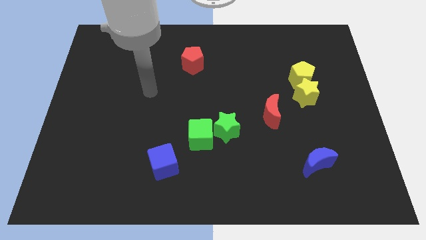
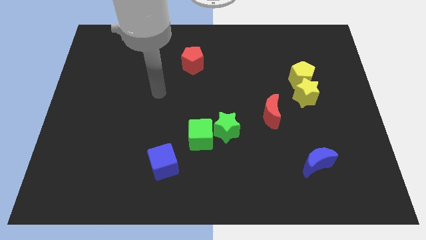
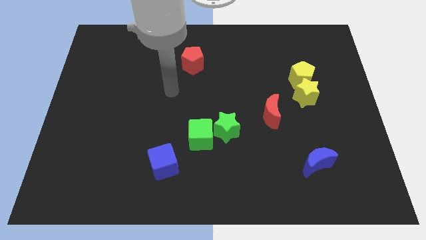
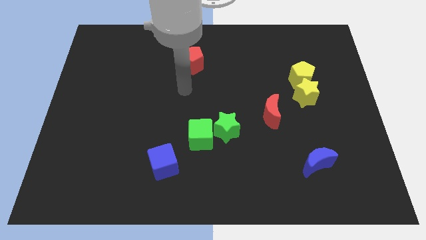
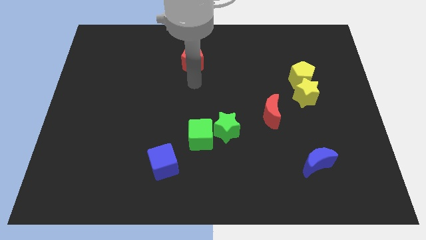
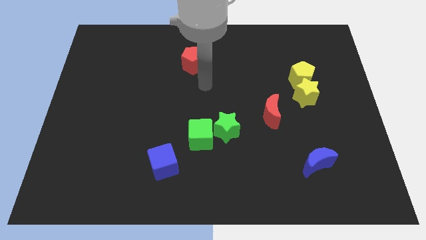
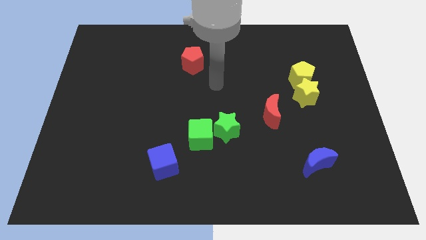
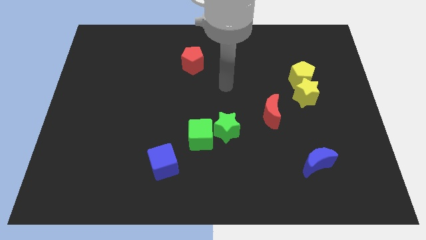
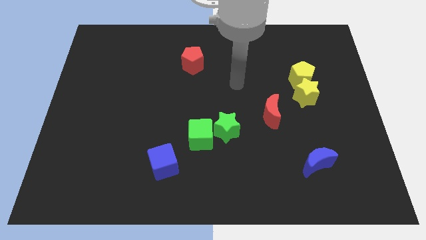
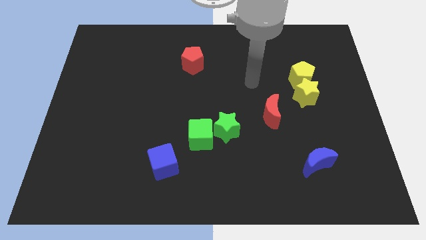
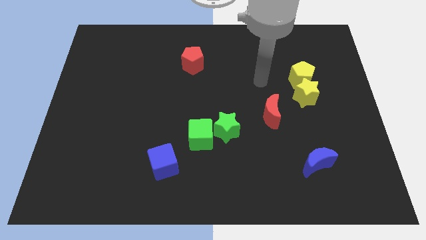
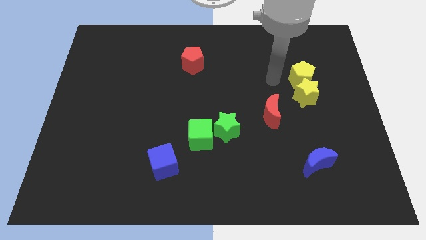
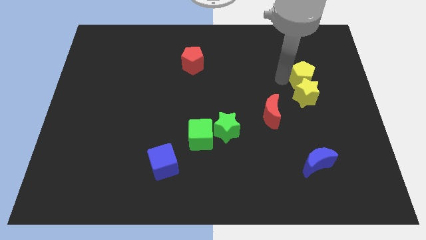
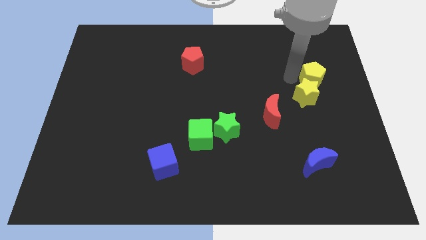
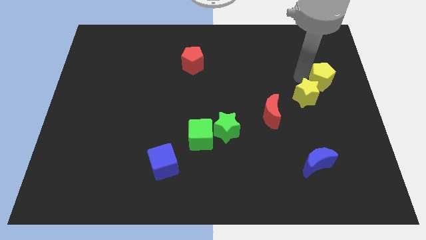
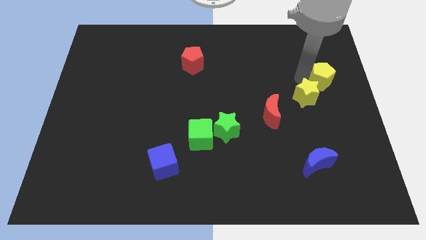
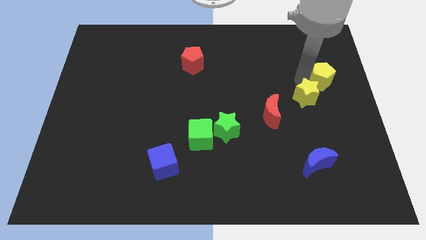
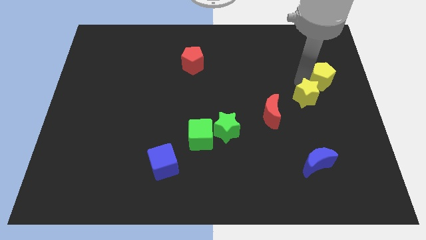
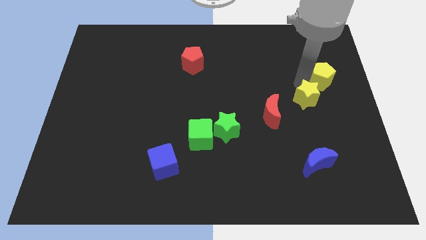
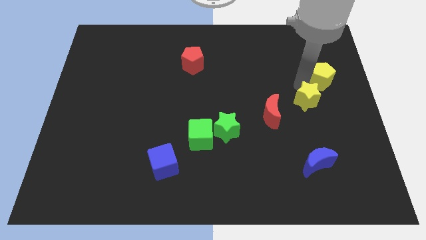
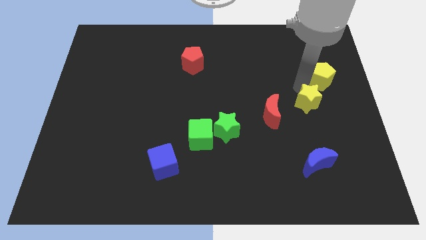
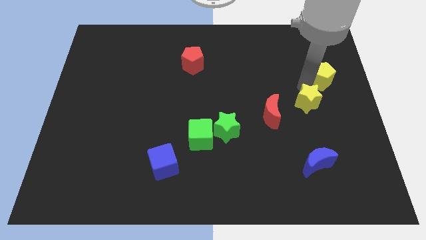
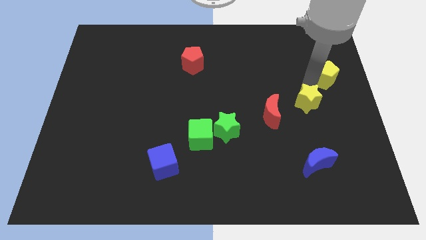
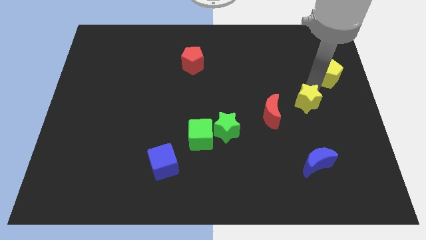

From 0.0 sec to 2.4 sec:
move the yellow star away from the yellow pentagon

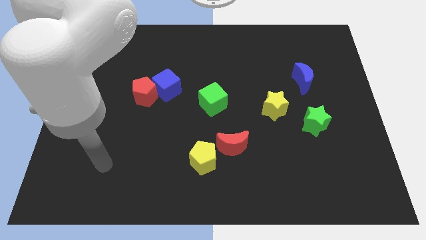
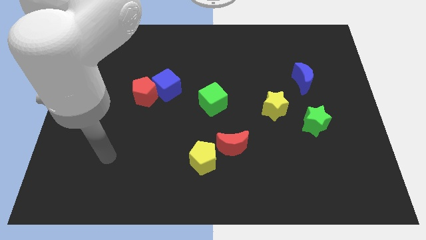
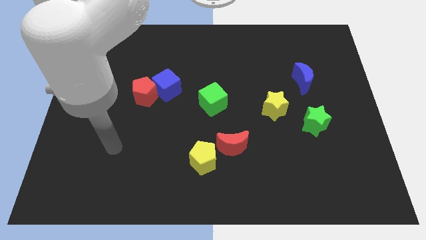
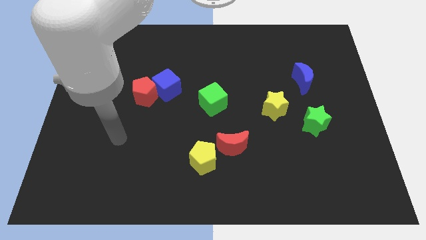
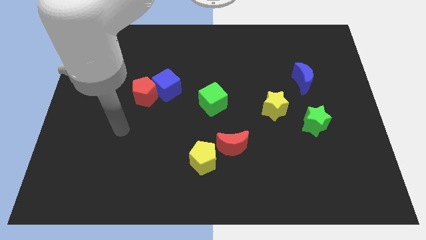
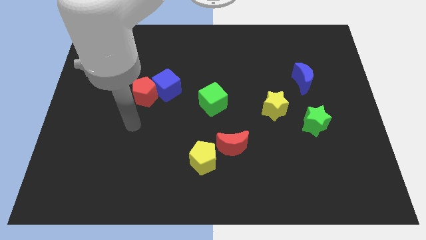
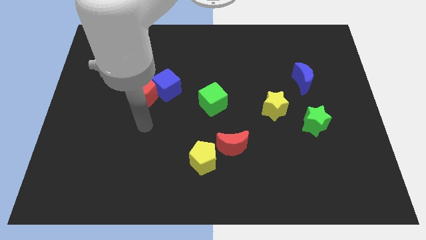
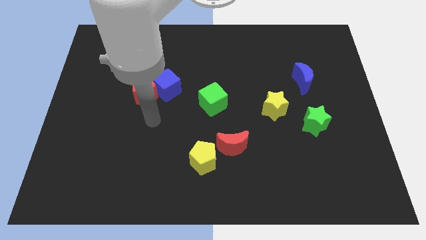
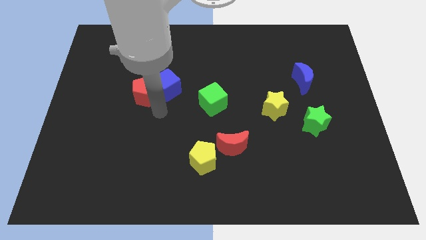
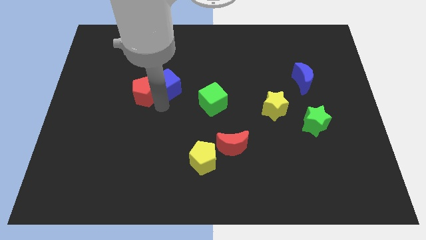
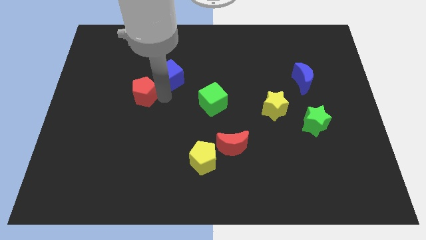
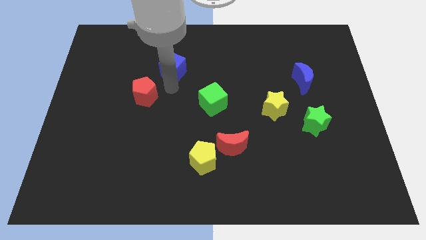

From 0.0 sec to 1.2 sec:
separate the red pentagon from the blue cube

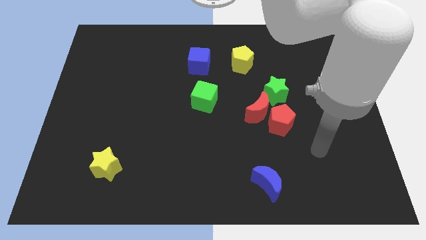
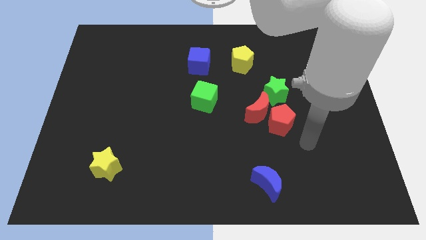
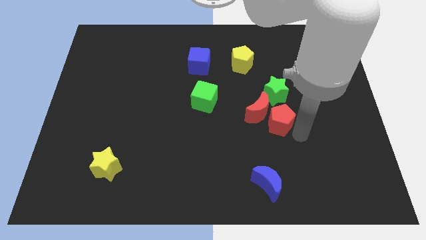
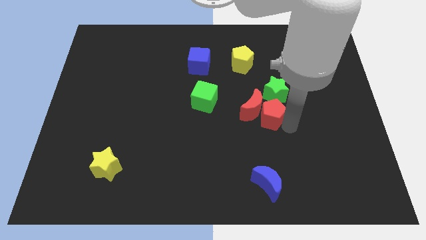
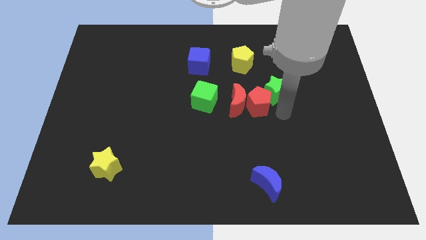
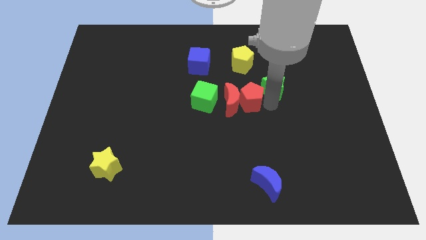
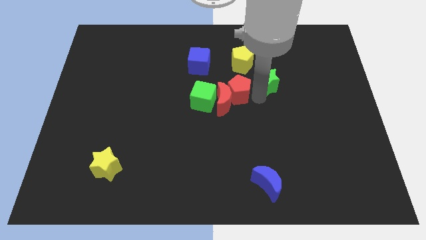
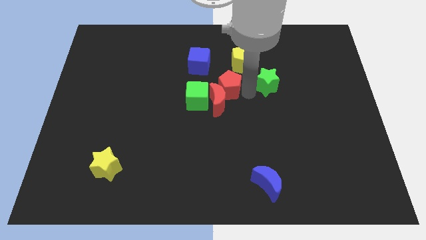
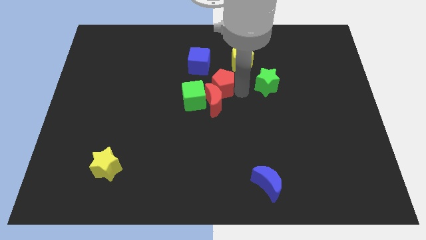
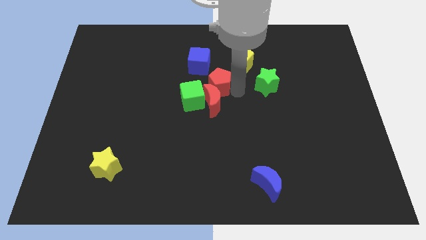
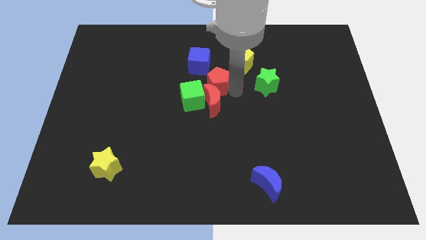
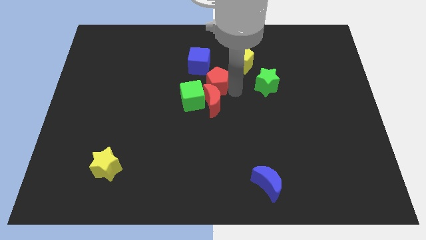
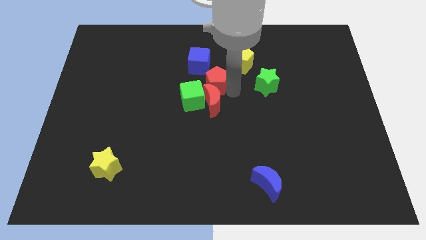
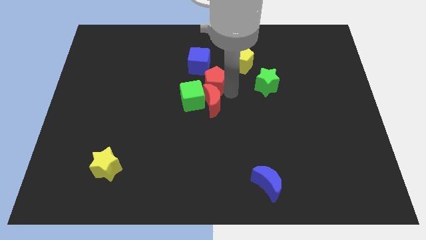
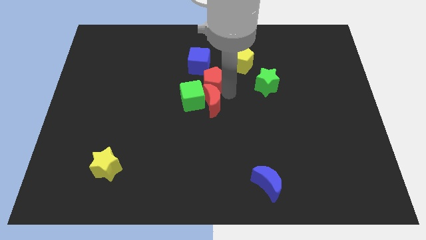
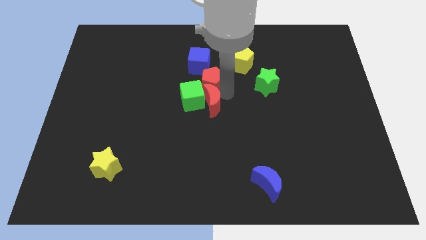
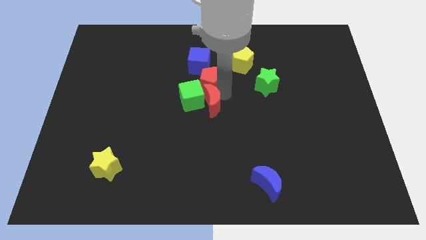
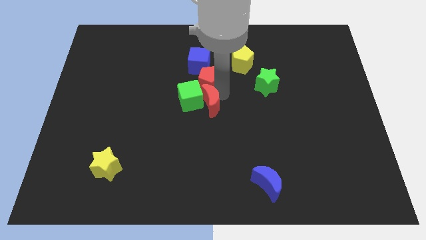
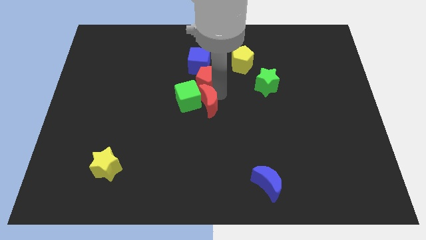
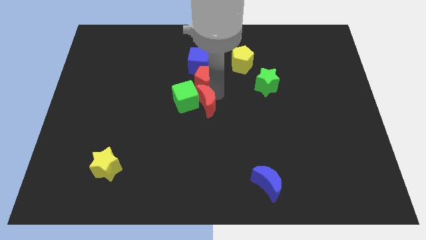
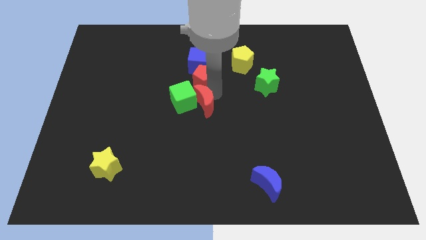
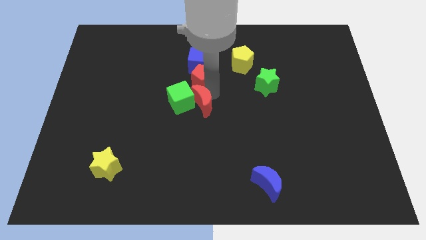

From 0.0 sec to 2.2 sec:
pull the red moon apart from the red pentagon and green star

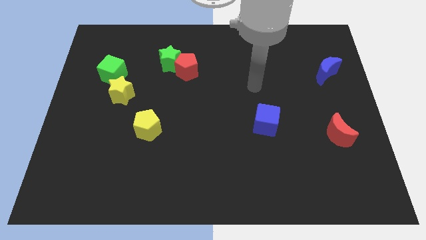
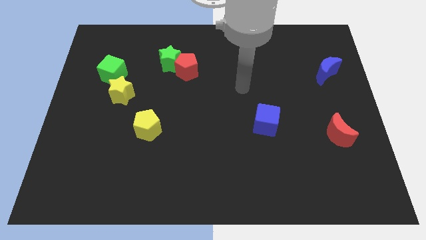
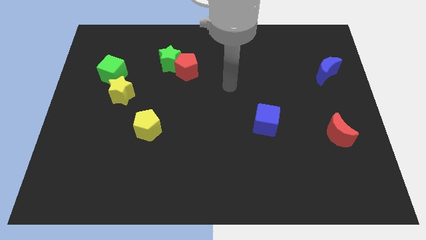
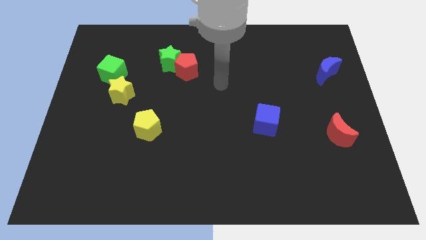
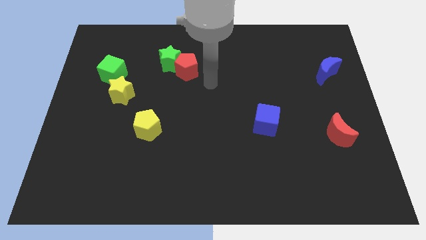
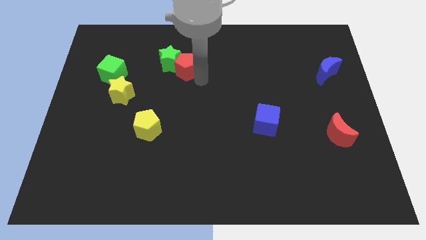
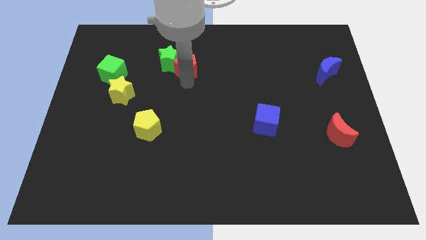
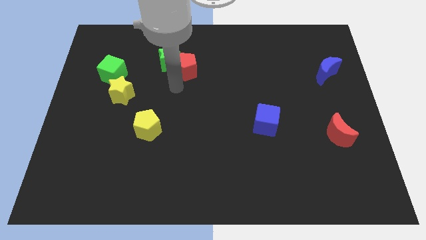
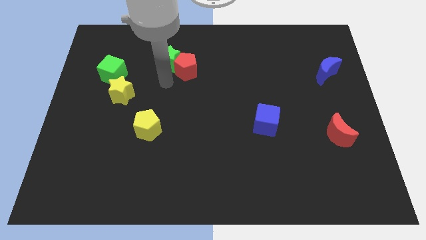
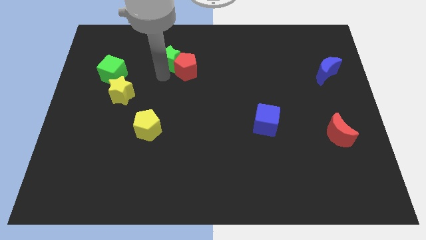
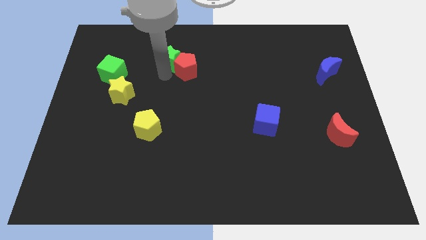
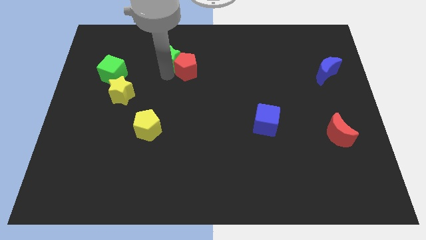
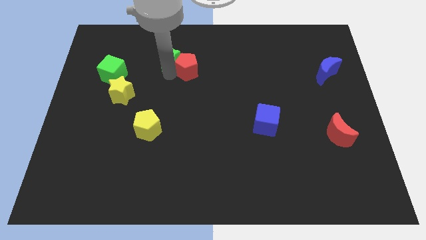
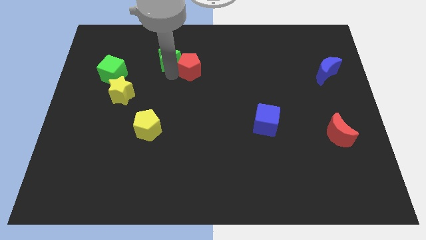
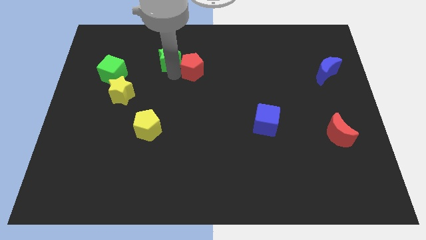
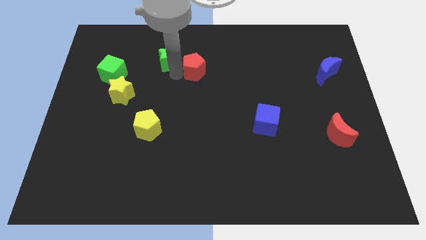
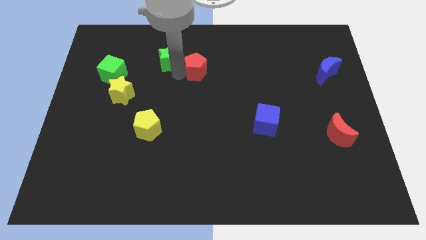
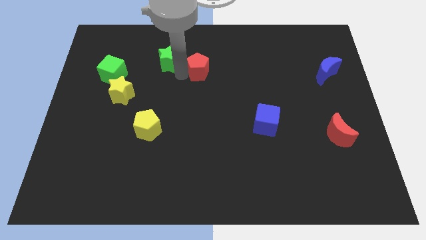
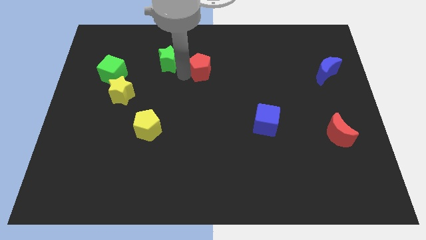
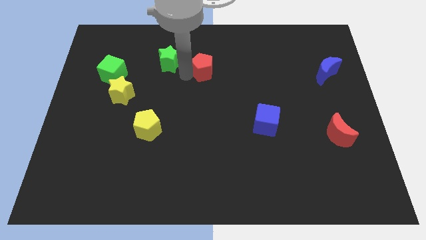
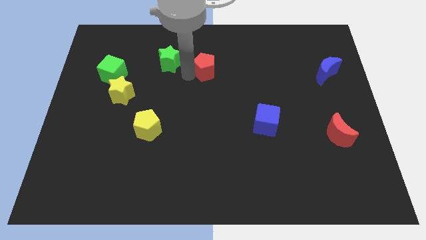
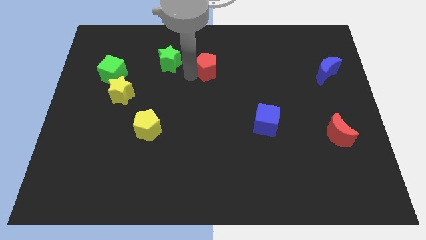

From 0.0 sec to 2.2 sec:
pull the red pentagon apart from the green star

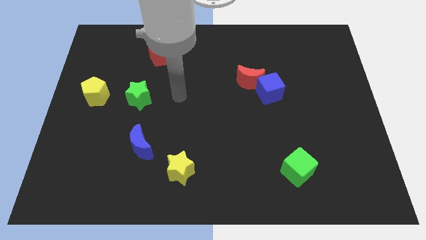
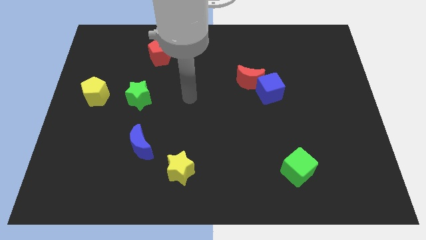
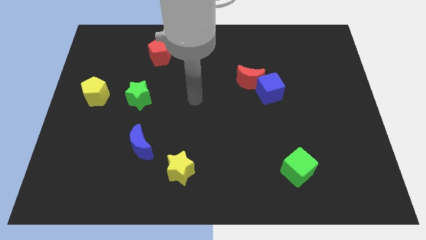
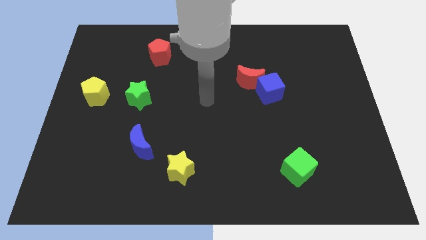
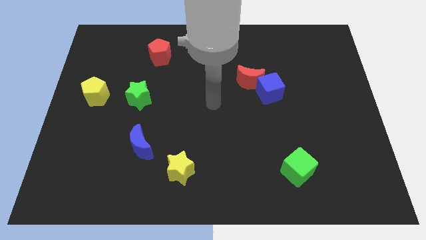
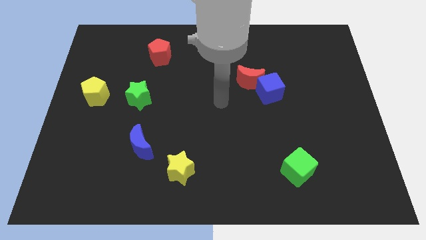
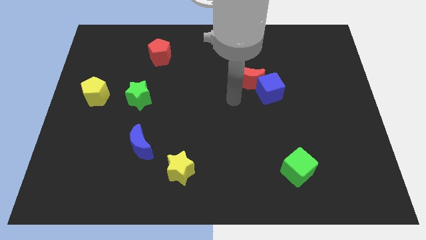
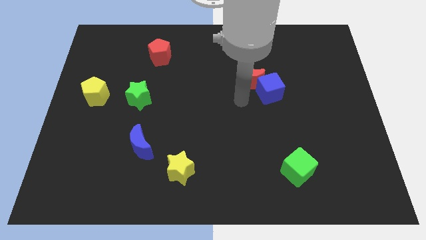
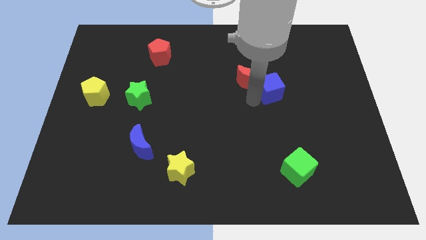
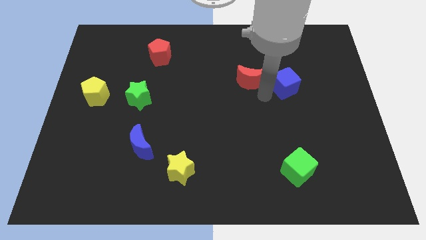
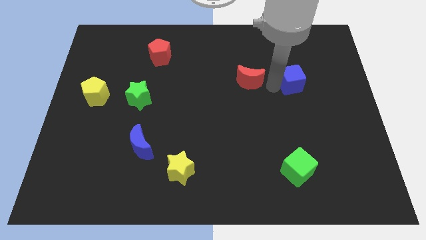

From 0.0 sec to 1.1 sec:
move the red moon away from the blue cube

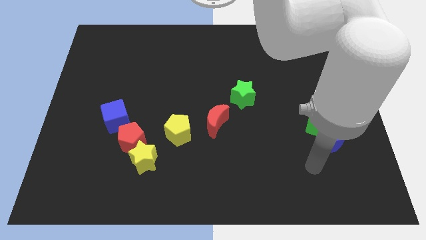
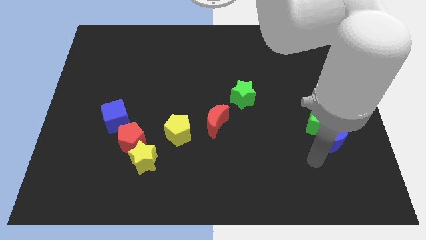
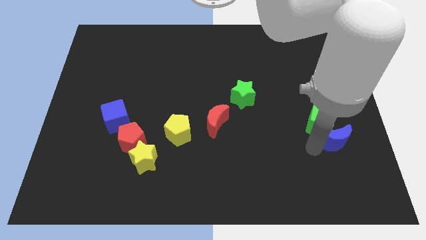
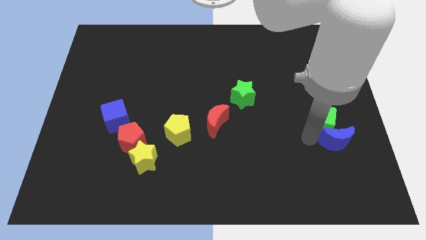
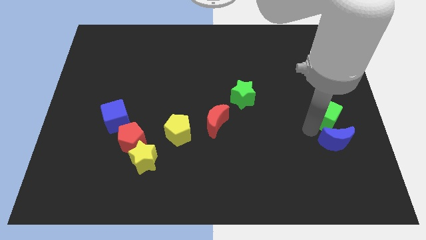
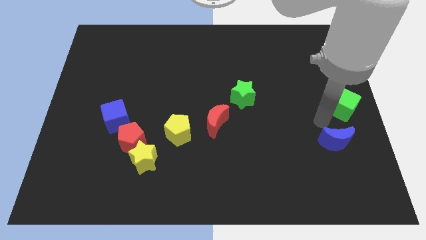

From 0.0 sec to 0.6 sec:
move the blue moon away from the green cube
